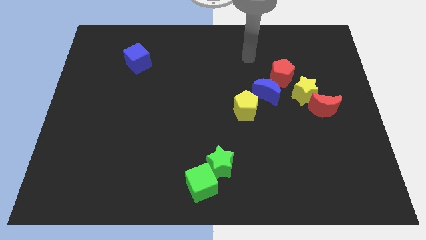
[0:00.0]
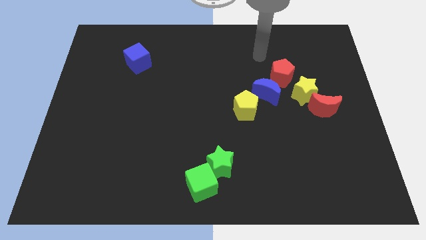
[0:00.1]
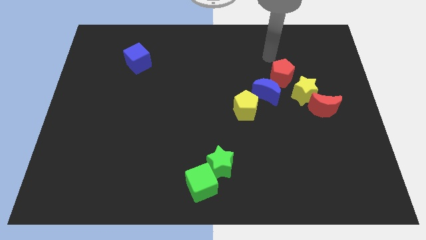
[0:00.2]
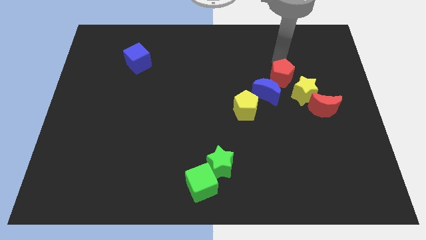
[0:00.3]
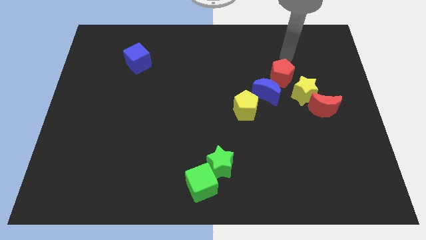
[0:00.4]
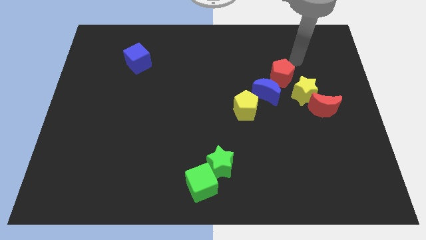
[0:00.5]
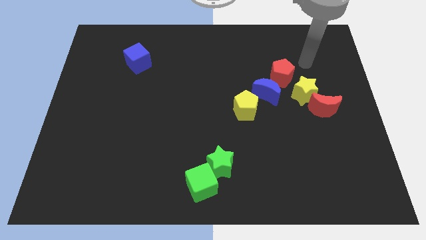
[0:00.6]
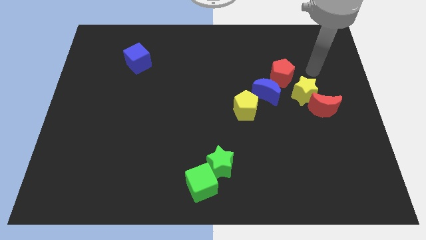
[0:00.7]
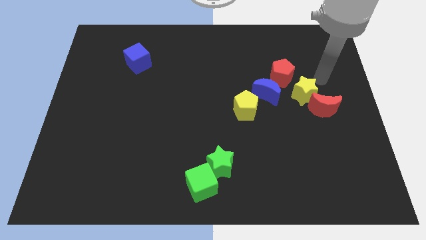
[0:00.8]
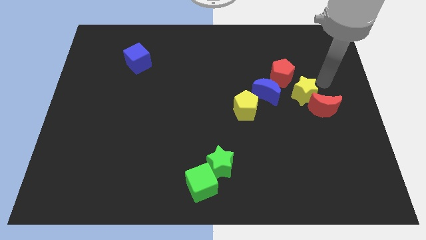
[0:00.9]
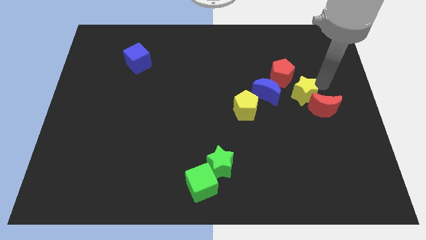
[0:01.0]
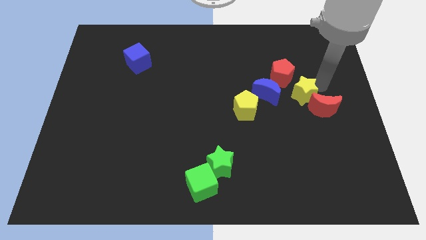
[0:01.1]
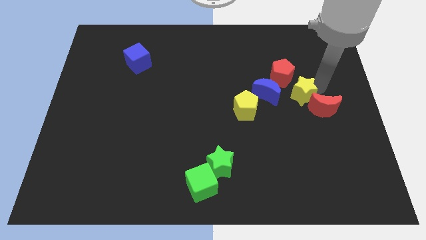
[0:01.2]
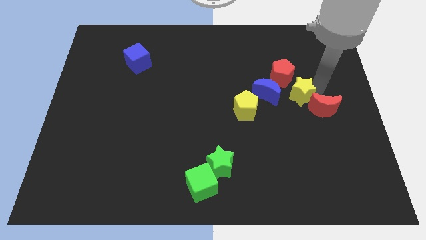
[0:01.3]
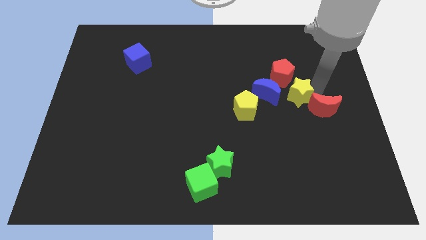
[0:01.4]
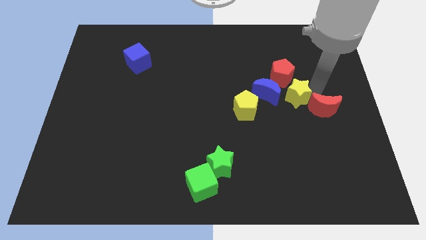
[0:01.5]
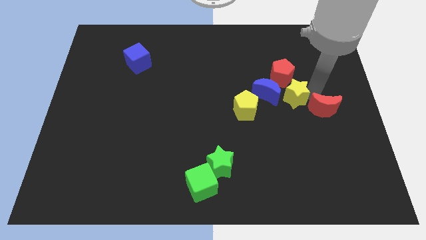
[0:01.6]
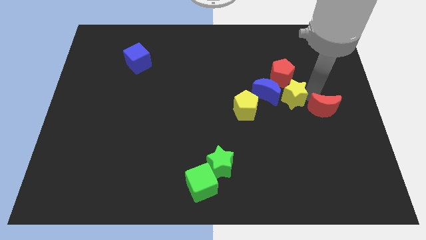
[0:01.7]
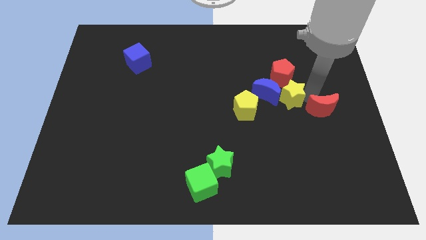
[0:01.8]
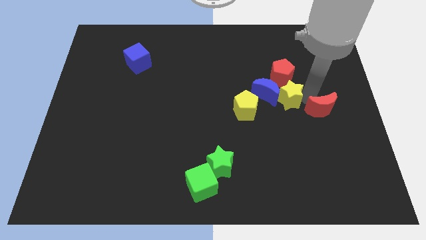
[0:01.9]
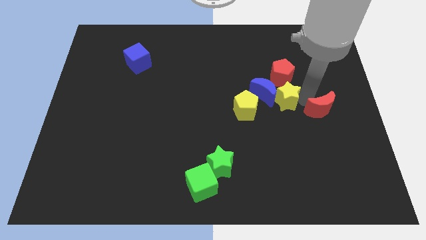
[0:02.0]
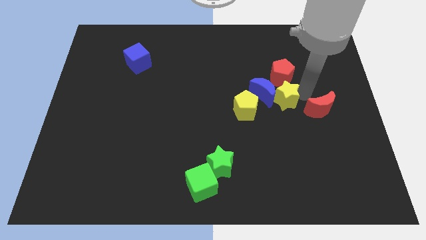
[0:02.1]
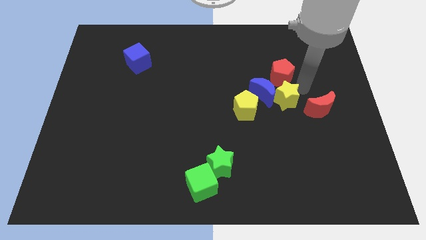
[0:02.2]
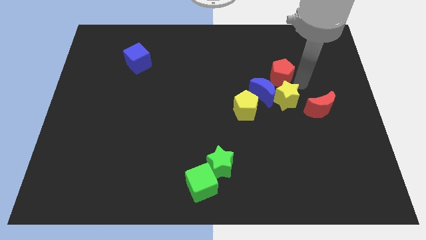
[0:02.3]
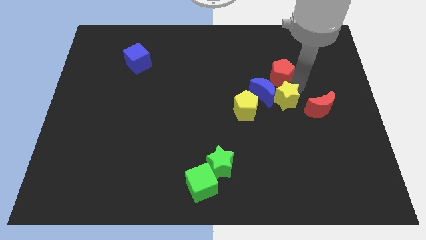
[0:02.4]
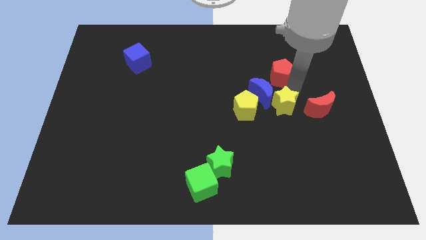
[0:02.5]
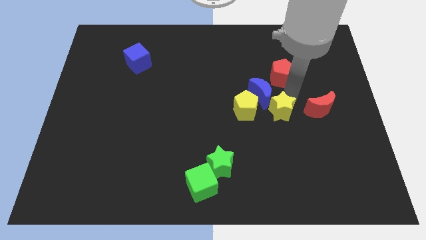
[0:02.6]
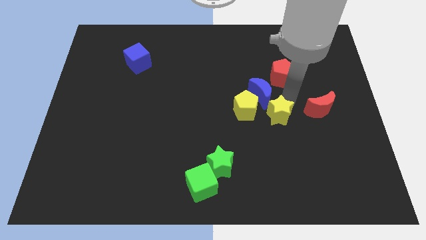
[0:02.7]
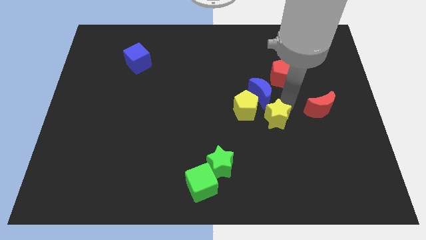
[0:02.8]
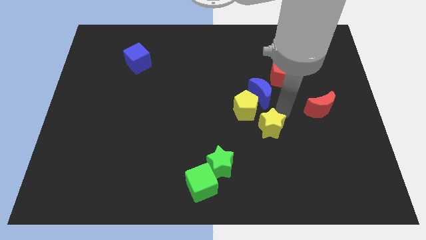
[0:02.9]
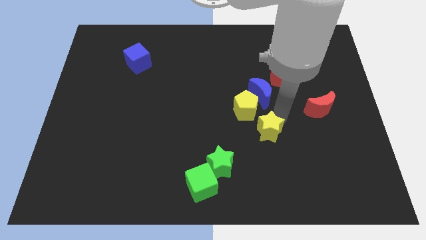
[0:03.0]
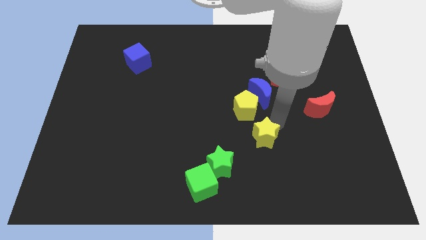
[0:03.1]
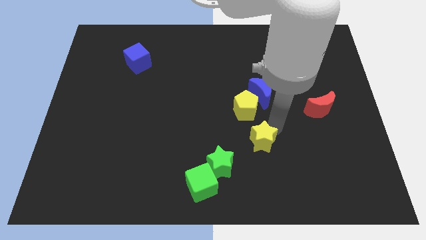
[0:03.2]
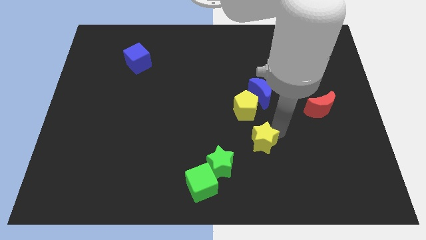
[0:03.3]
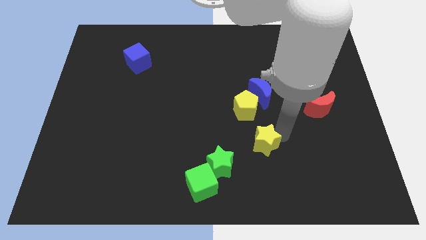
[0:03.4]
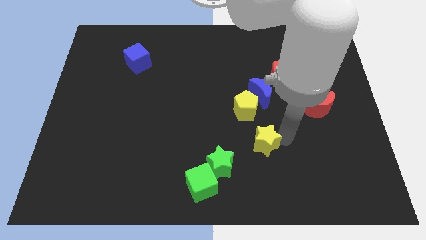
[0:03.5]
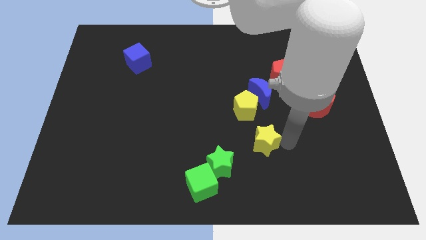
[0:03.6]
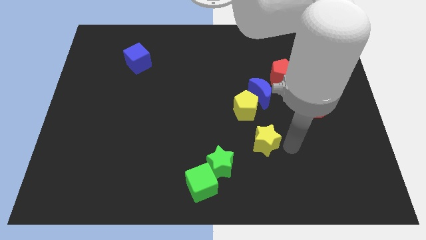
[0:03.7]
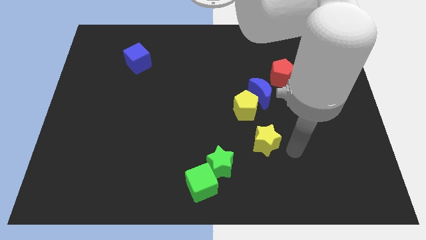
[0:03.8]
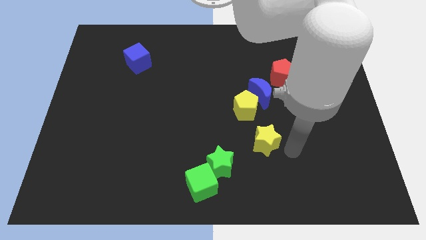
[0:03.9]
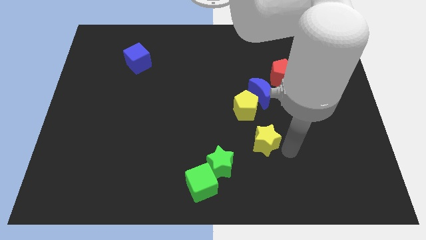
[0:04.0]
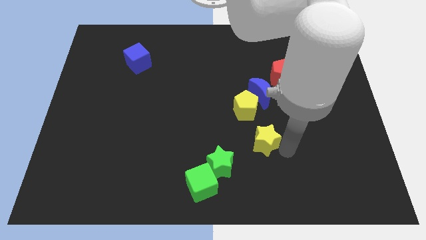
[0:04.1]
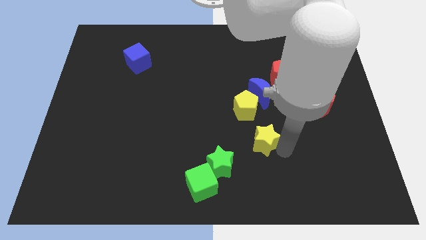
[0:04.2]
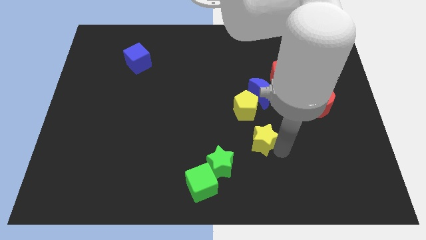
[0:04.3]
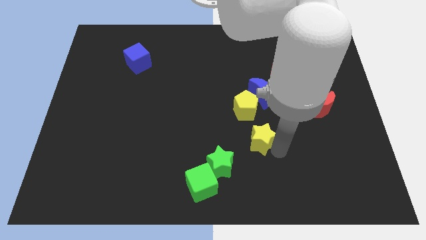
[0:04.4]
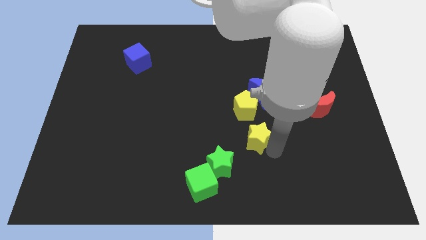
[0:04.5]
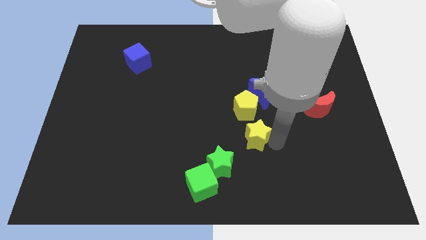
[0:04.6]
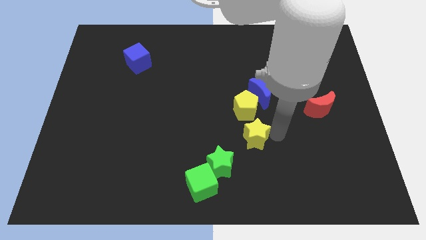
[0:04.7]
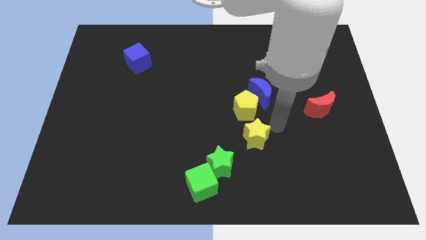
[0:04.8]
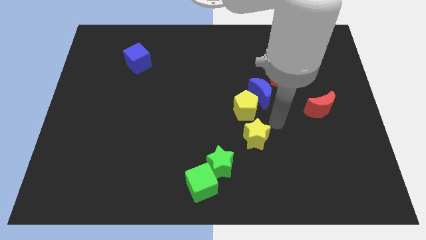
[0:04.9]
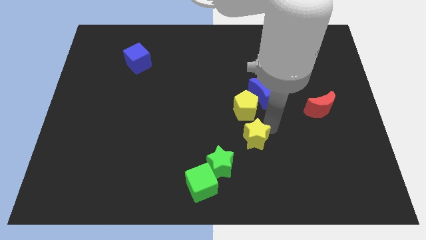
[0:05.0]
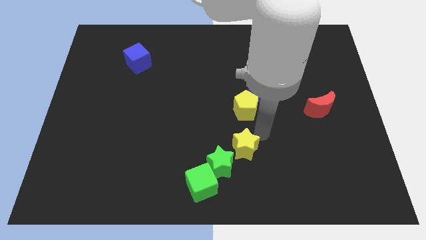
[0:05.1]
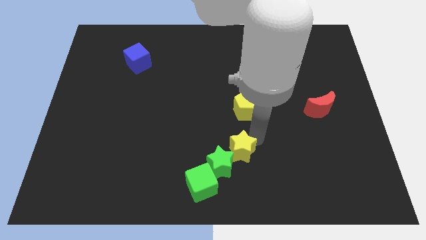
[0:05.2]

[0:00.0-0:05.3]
put the yellow star close to the green star

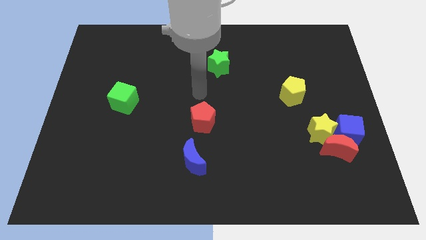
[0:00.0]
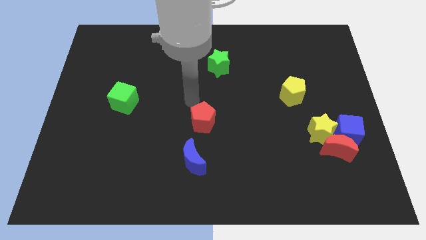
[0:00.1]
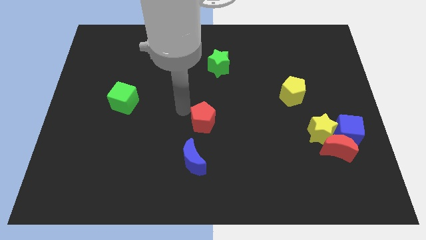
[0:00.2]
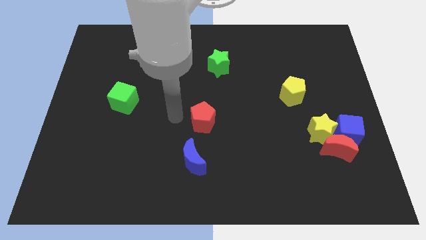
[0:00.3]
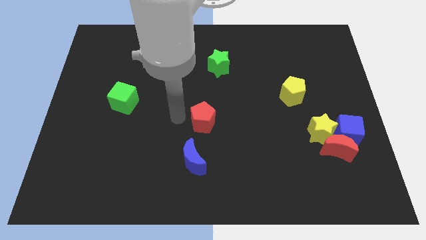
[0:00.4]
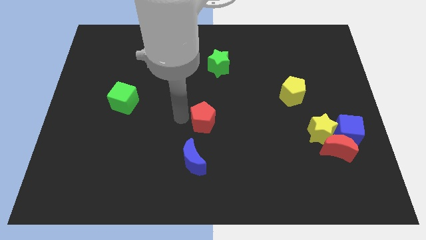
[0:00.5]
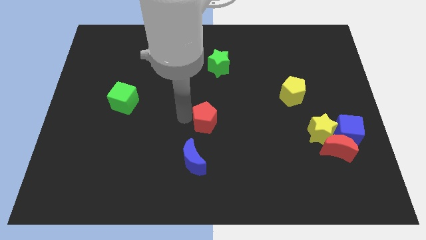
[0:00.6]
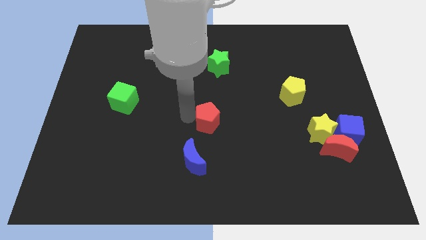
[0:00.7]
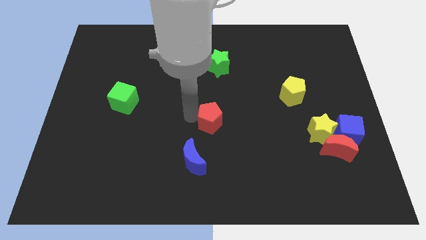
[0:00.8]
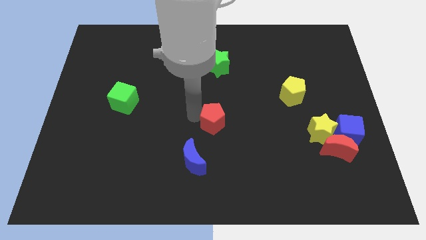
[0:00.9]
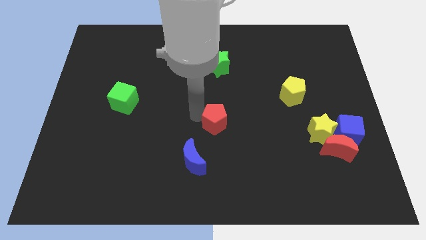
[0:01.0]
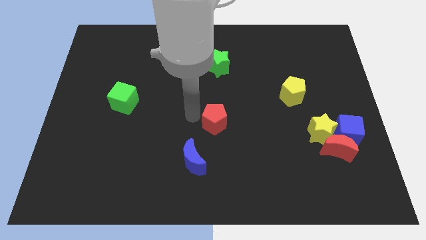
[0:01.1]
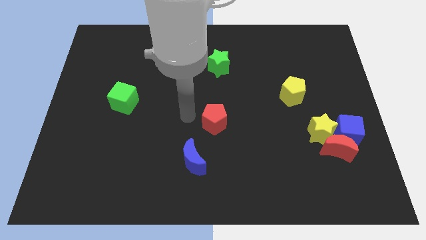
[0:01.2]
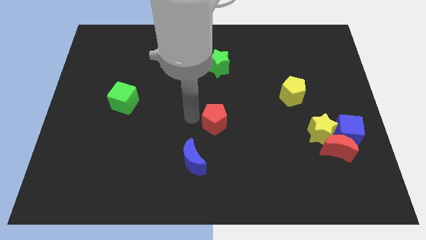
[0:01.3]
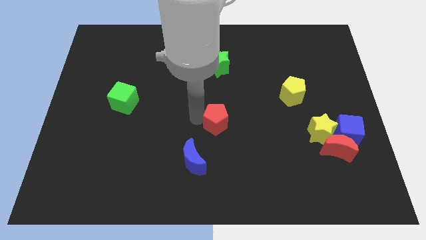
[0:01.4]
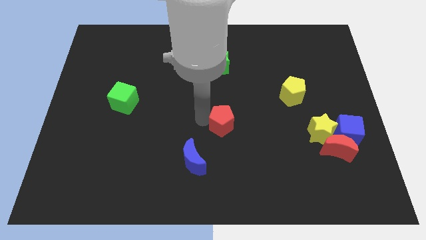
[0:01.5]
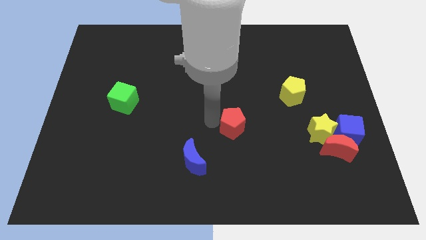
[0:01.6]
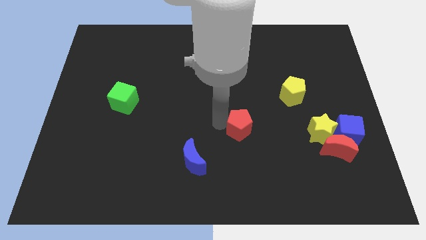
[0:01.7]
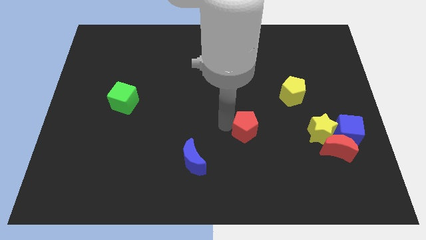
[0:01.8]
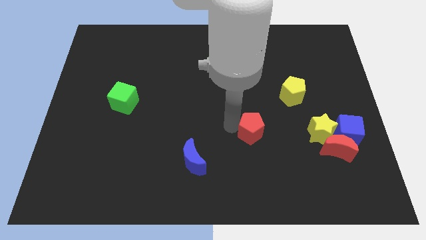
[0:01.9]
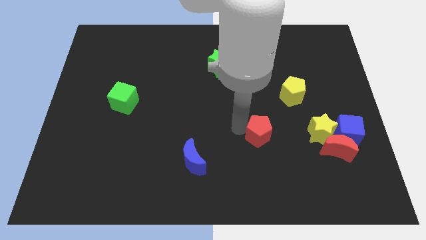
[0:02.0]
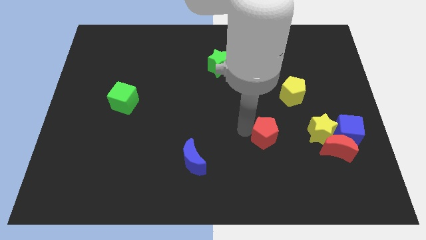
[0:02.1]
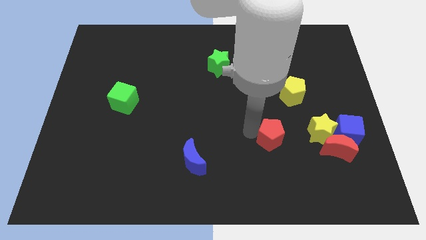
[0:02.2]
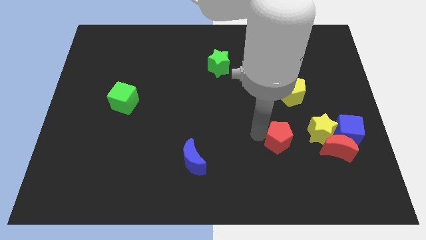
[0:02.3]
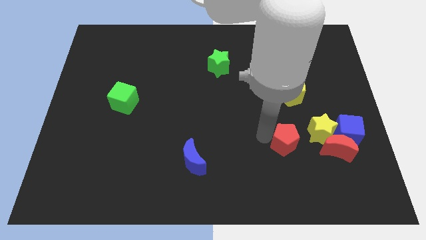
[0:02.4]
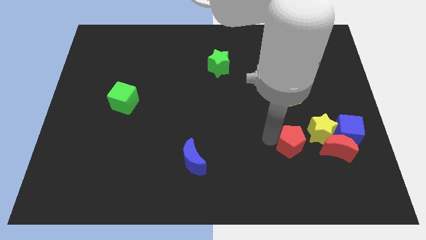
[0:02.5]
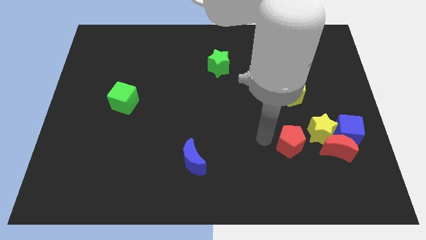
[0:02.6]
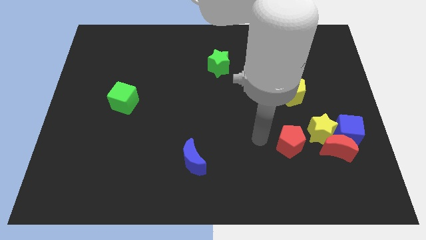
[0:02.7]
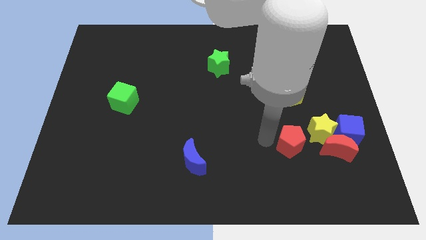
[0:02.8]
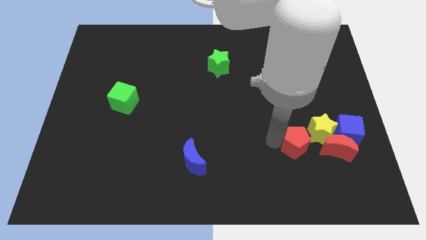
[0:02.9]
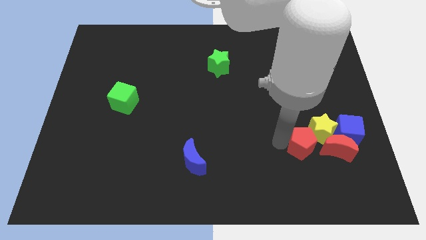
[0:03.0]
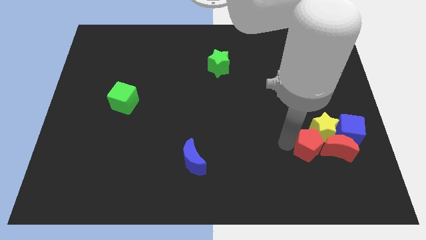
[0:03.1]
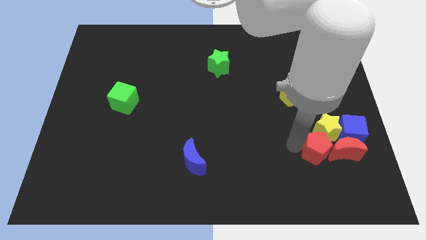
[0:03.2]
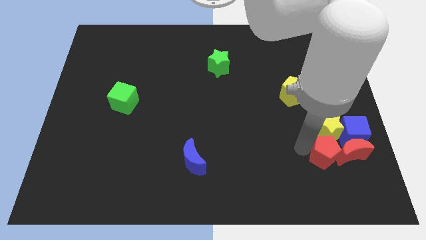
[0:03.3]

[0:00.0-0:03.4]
push the red pentagon towards the red moon
